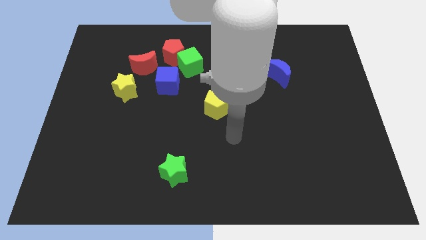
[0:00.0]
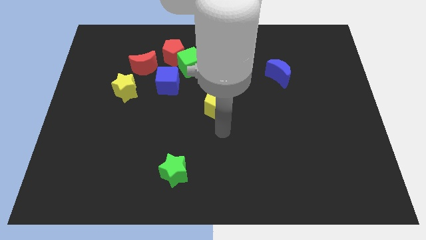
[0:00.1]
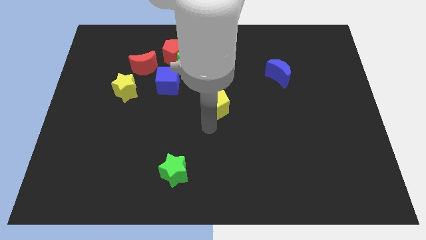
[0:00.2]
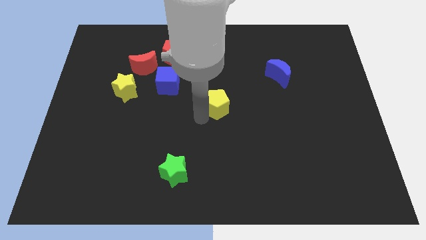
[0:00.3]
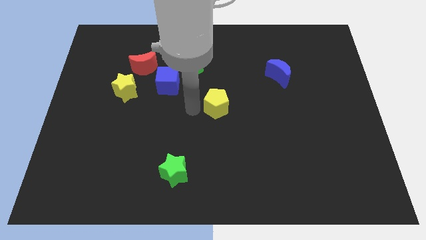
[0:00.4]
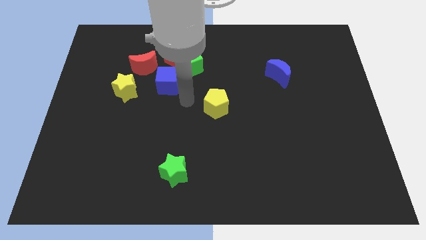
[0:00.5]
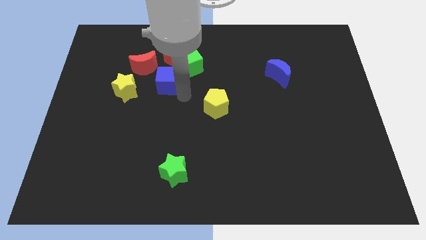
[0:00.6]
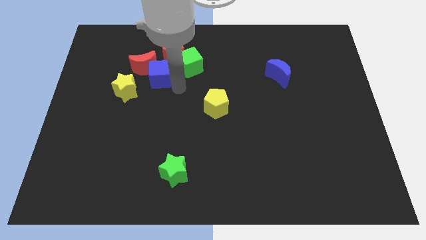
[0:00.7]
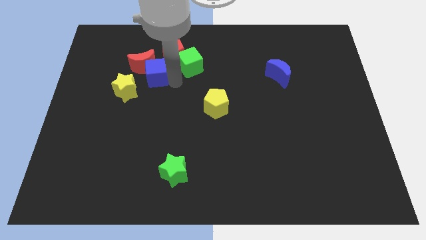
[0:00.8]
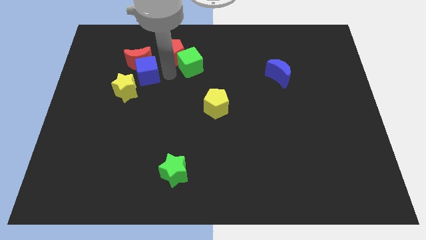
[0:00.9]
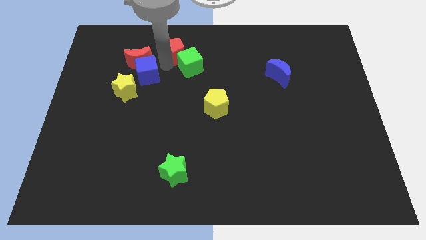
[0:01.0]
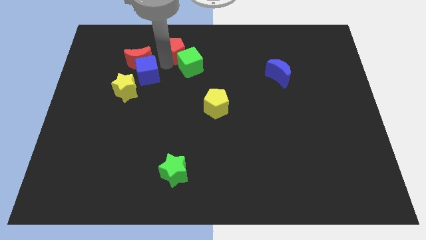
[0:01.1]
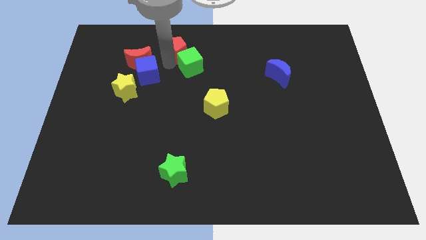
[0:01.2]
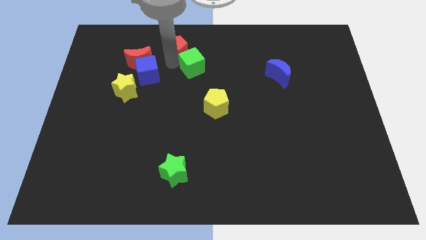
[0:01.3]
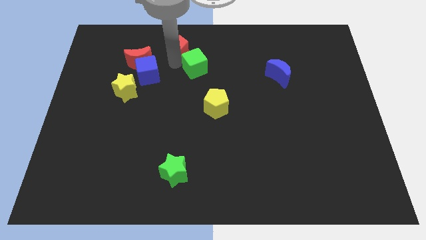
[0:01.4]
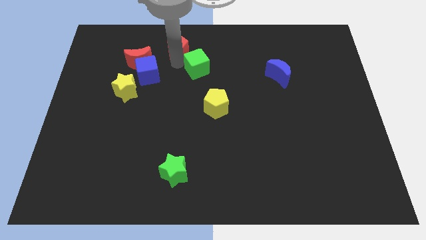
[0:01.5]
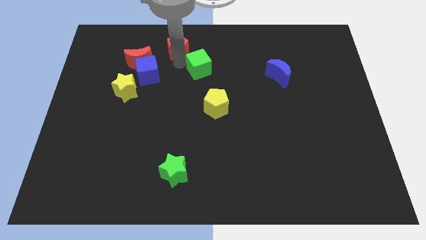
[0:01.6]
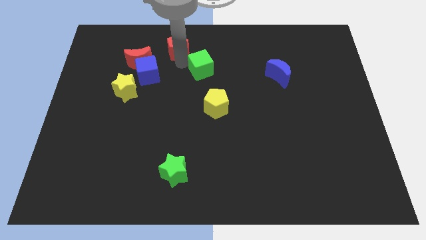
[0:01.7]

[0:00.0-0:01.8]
separate the green cube from the red pentagon and blue cube

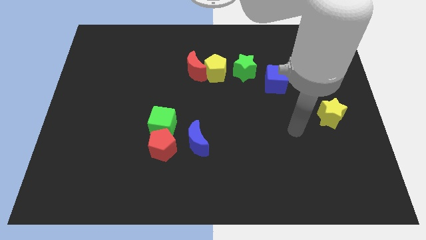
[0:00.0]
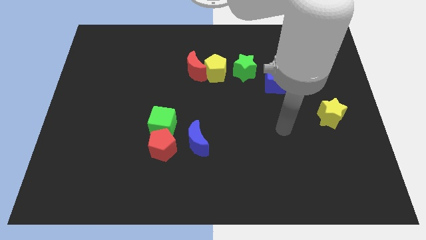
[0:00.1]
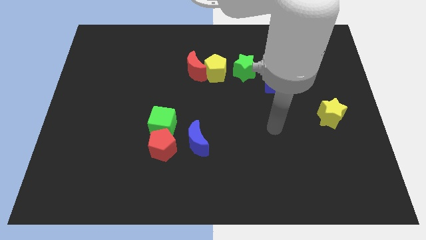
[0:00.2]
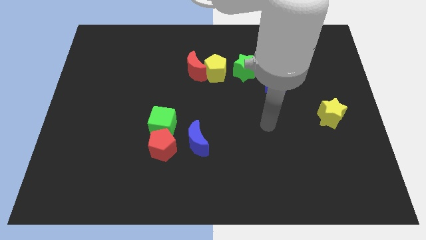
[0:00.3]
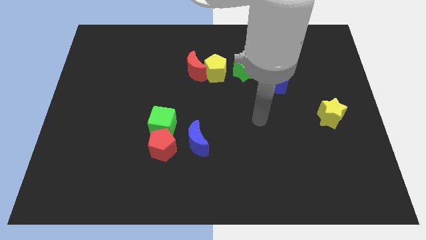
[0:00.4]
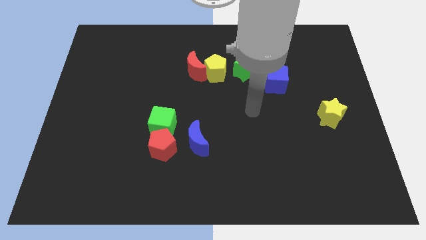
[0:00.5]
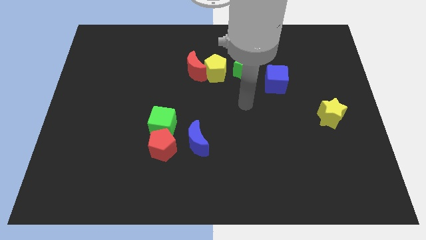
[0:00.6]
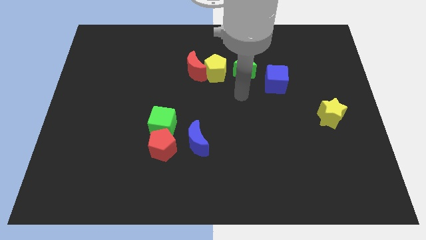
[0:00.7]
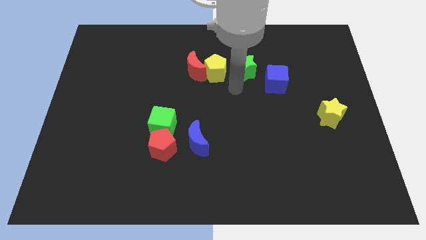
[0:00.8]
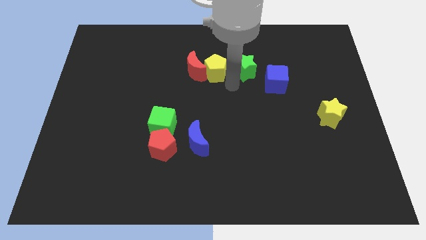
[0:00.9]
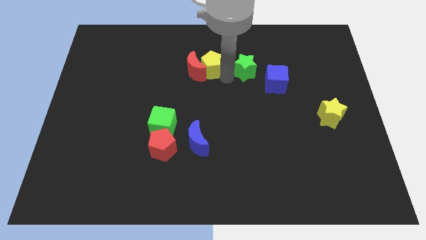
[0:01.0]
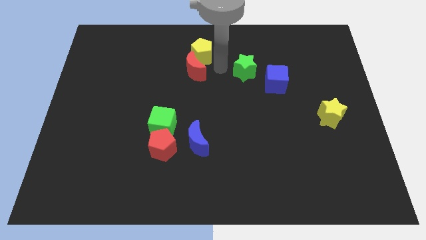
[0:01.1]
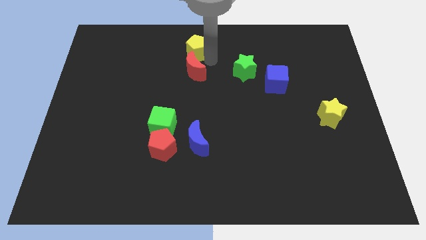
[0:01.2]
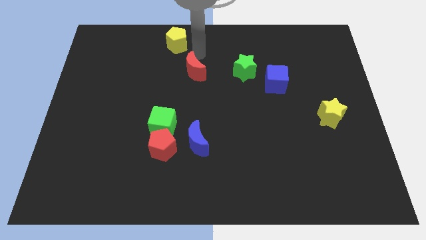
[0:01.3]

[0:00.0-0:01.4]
pull the red moon apart from the yellow pentagon

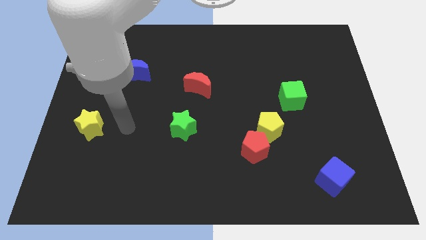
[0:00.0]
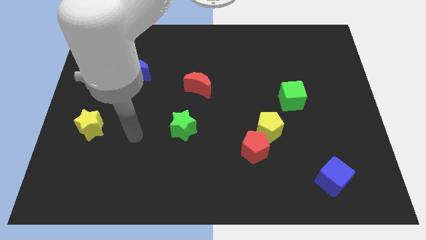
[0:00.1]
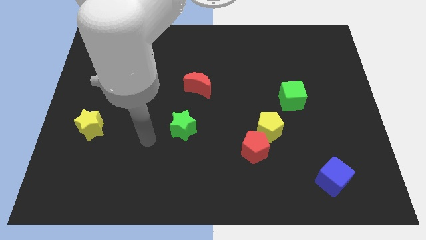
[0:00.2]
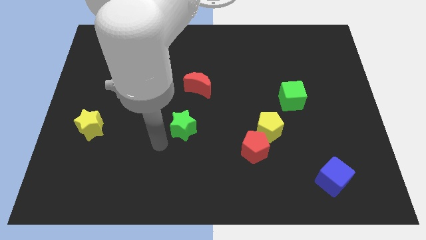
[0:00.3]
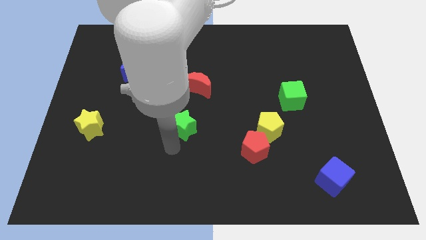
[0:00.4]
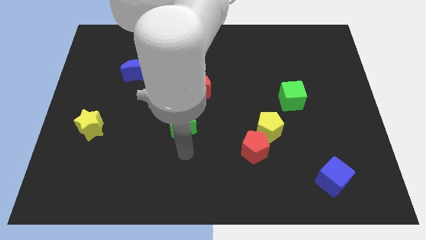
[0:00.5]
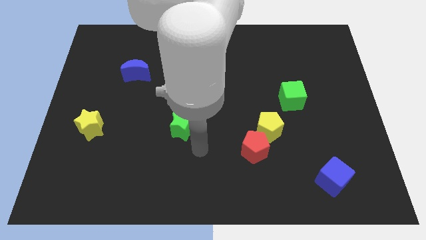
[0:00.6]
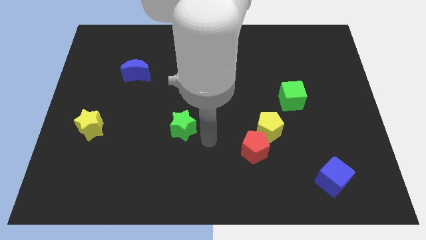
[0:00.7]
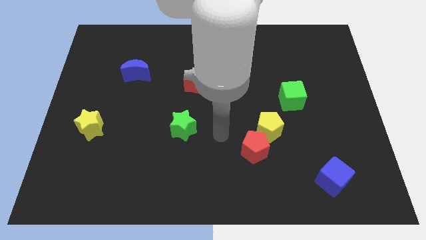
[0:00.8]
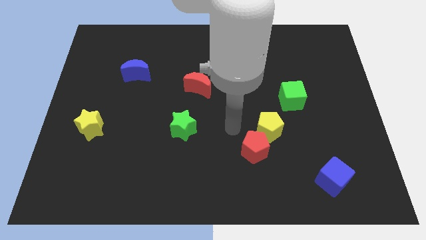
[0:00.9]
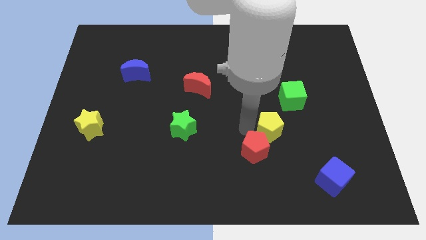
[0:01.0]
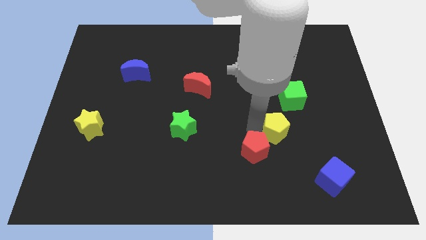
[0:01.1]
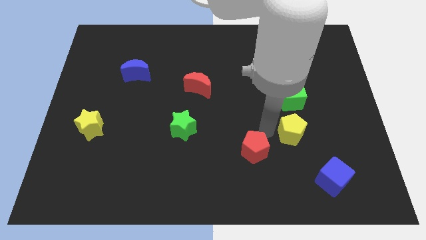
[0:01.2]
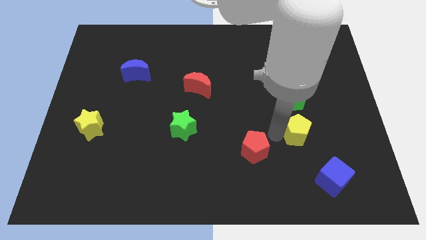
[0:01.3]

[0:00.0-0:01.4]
pull the red pentagon apart from the yellow pentagon

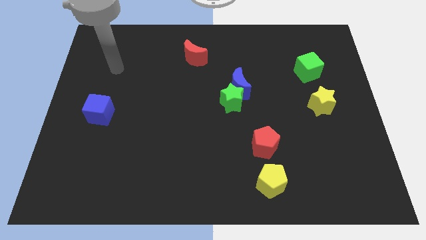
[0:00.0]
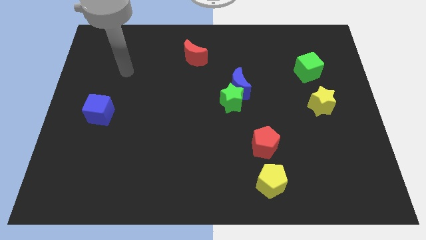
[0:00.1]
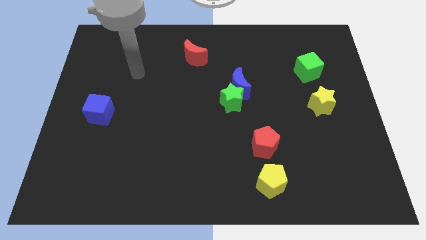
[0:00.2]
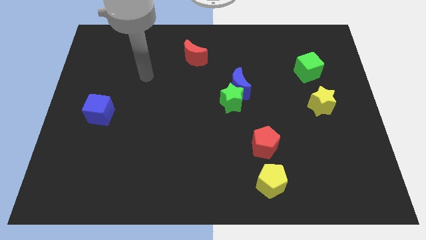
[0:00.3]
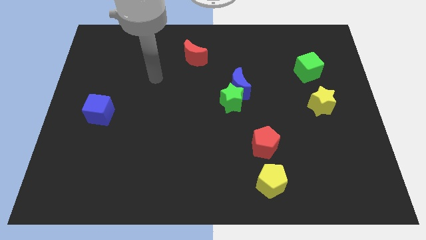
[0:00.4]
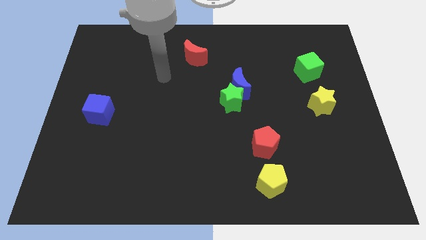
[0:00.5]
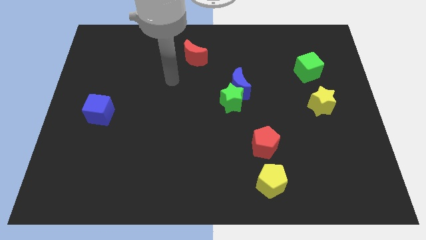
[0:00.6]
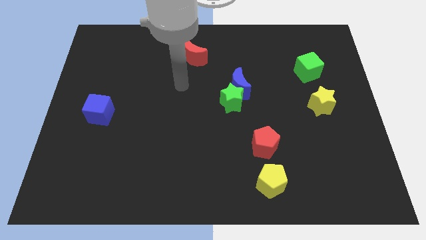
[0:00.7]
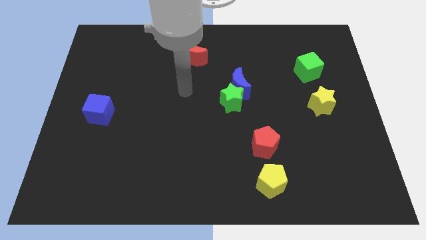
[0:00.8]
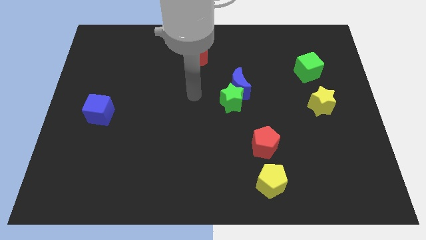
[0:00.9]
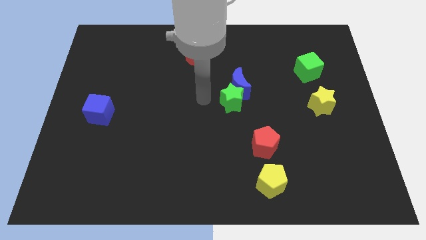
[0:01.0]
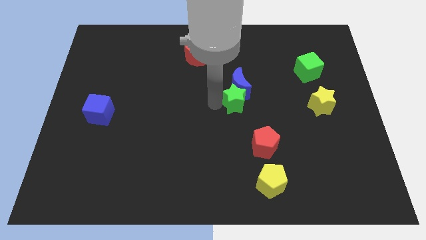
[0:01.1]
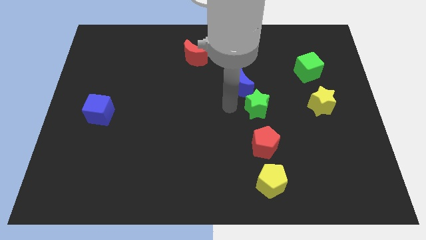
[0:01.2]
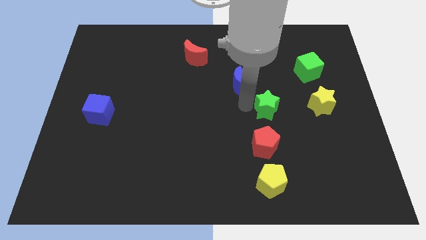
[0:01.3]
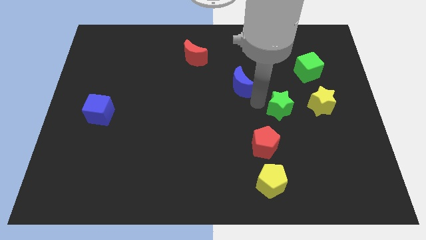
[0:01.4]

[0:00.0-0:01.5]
move the blue moon away from the green star

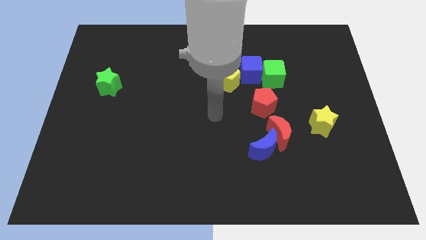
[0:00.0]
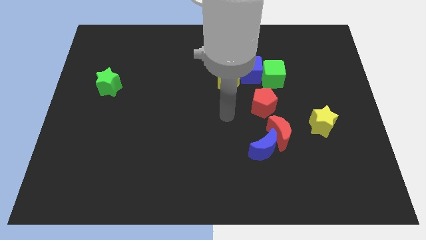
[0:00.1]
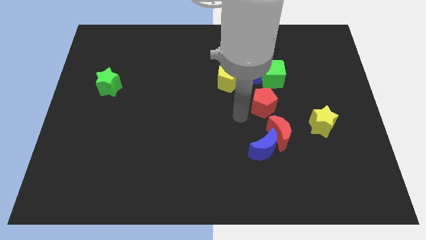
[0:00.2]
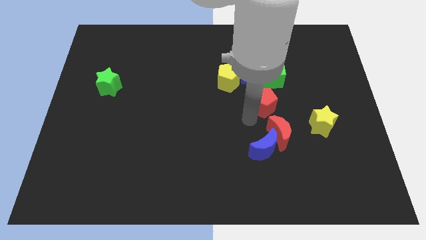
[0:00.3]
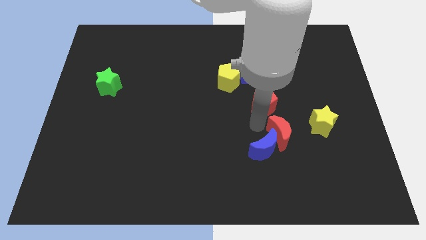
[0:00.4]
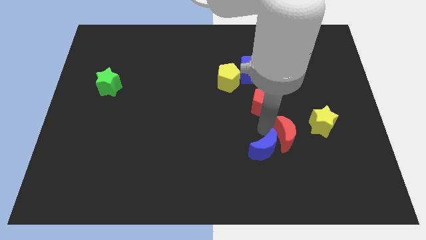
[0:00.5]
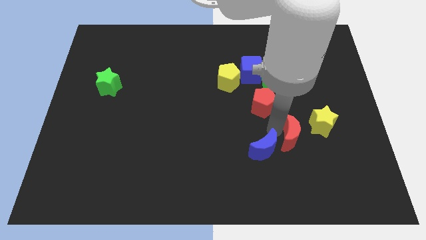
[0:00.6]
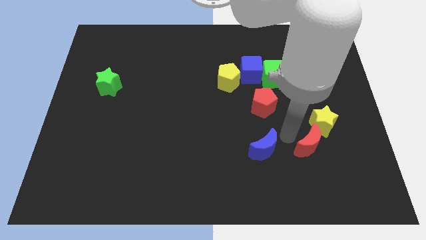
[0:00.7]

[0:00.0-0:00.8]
move the blue moon away from the red moon

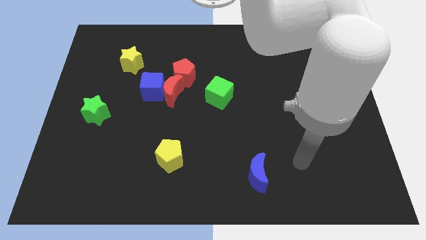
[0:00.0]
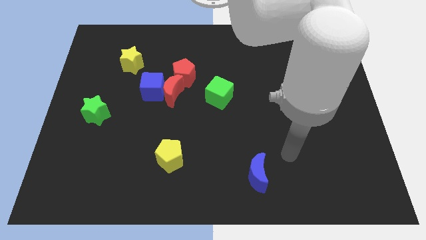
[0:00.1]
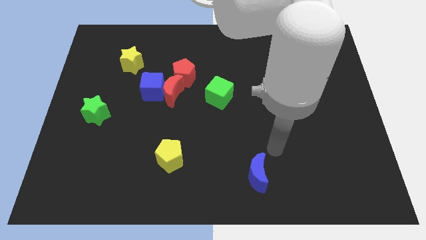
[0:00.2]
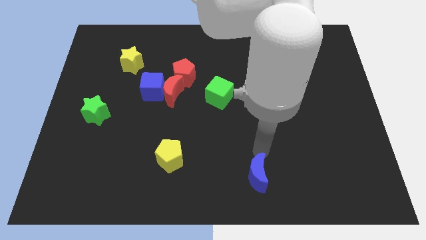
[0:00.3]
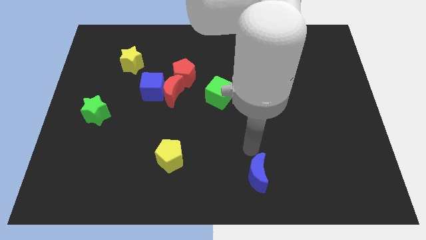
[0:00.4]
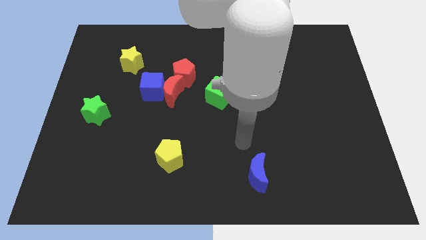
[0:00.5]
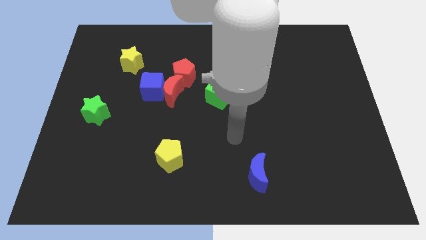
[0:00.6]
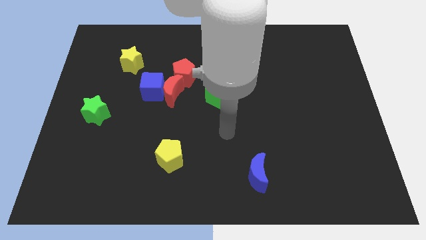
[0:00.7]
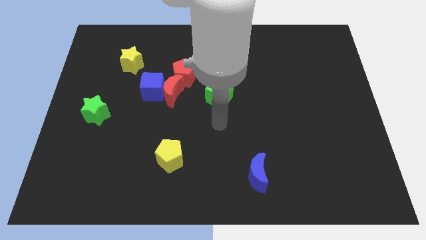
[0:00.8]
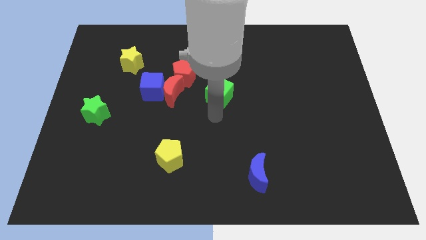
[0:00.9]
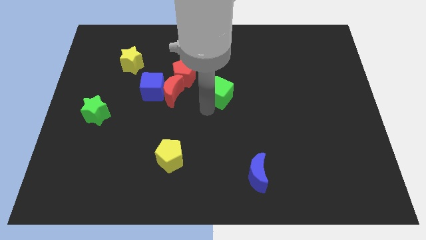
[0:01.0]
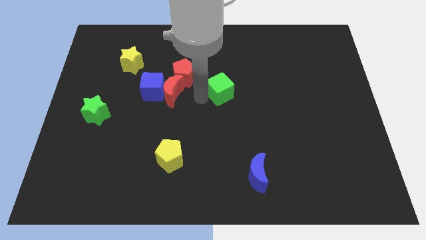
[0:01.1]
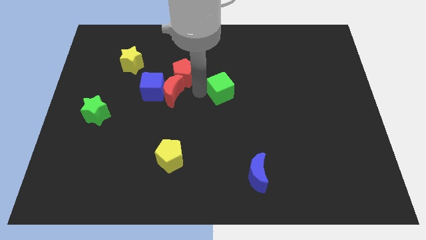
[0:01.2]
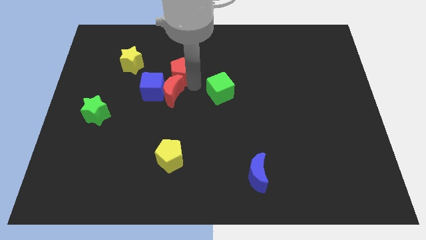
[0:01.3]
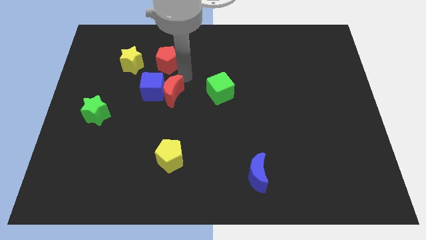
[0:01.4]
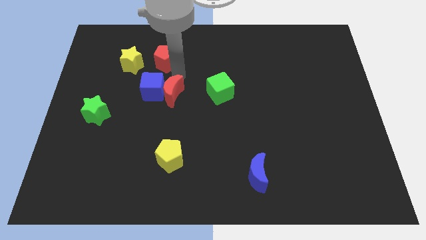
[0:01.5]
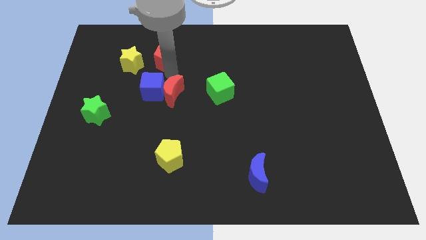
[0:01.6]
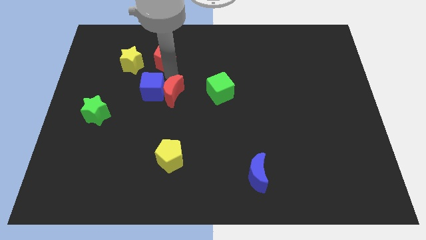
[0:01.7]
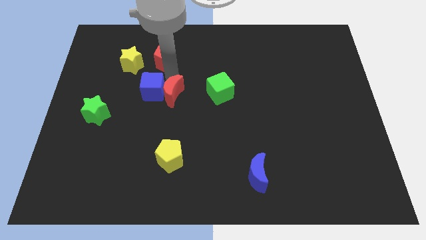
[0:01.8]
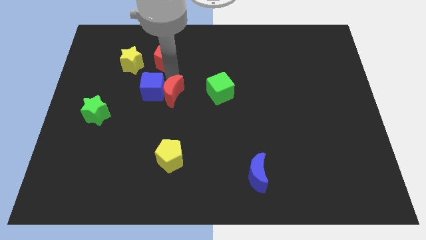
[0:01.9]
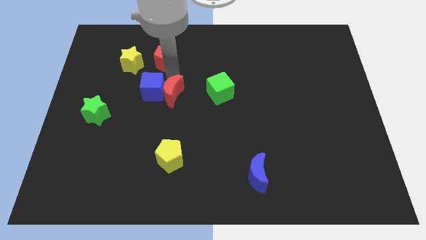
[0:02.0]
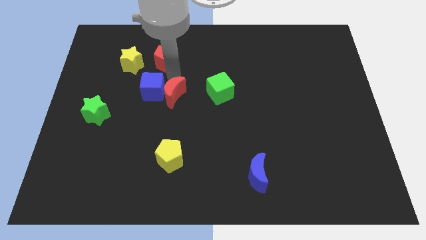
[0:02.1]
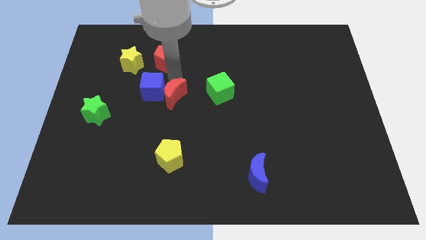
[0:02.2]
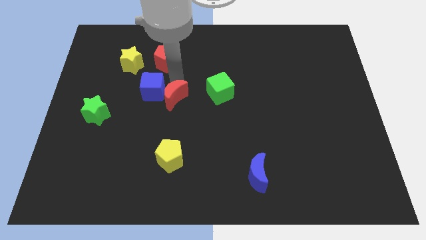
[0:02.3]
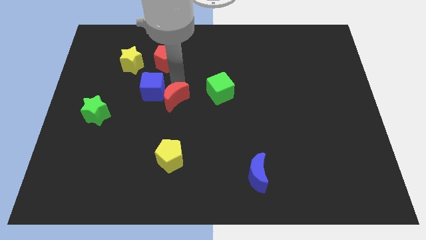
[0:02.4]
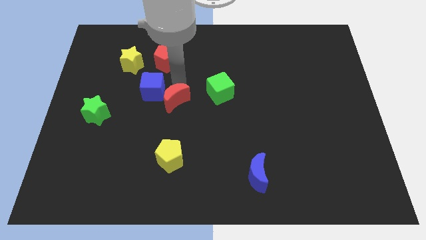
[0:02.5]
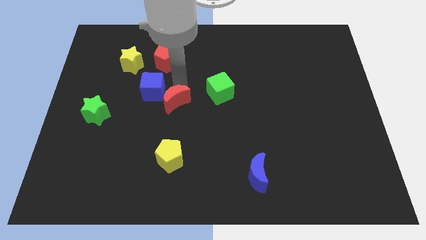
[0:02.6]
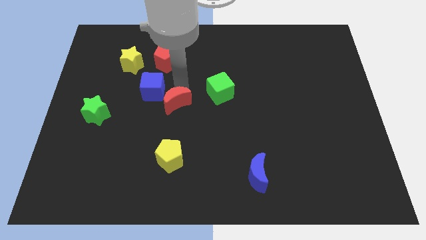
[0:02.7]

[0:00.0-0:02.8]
separate the red moon from the blue cube and red pentagon
